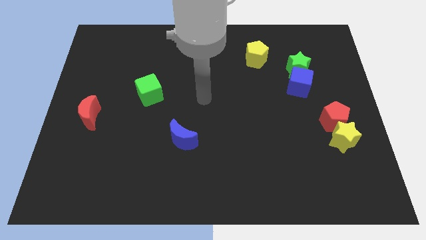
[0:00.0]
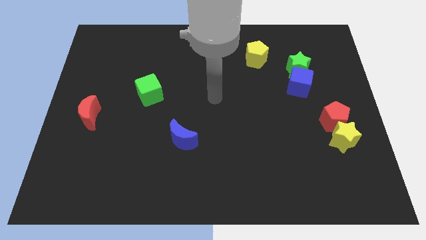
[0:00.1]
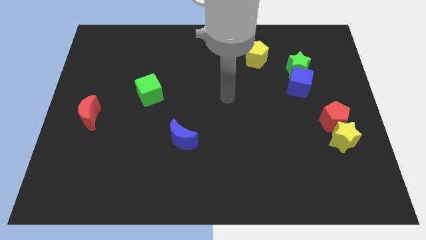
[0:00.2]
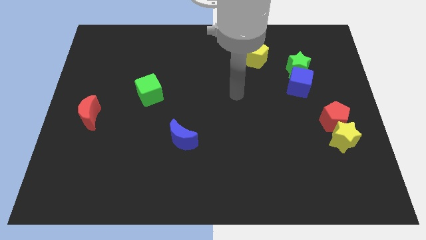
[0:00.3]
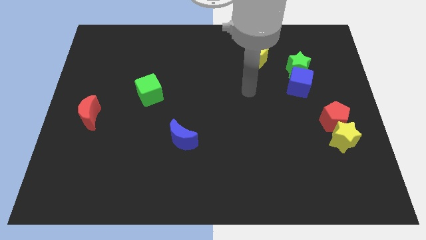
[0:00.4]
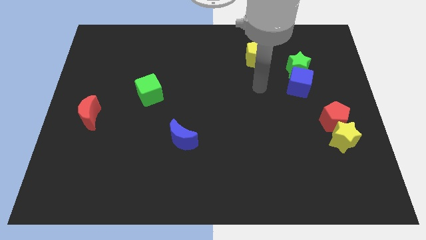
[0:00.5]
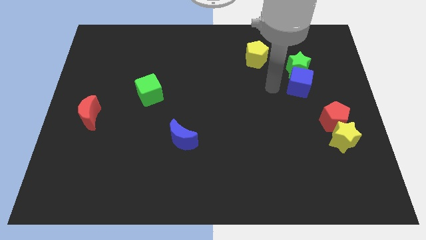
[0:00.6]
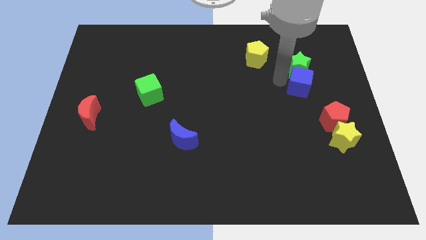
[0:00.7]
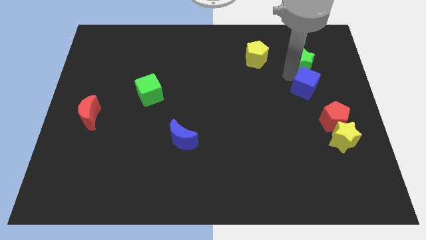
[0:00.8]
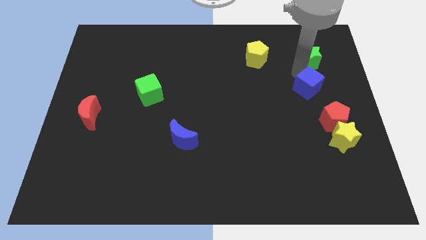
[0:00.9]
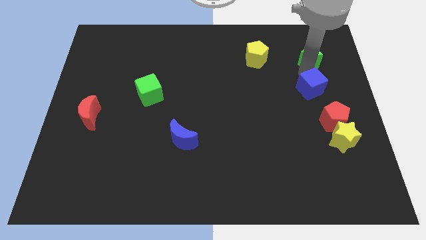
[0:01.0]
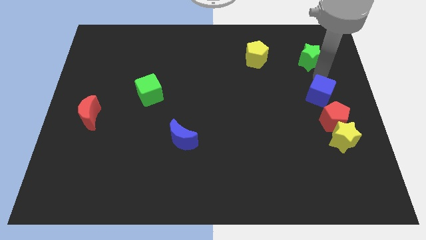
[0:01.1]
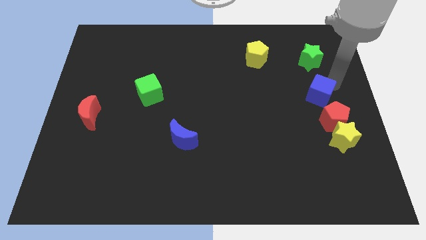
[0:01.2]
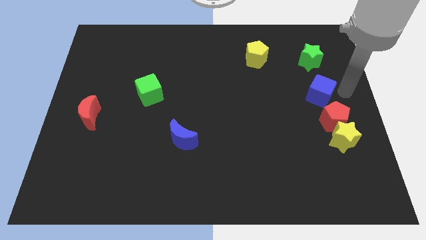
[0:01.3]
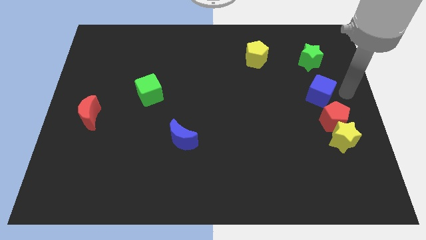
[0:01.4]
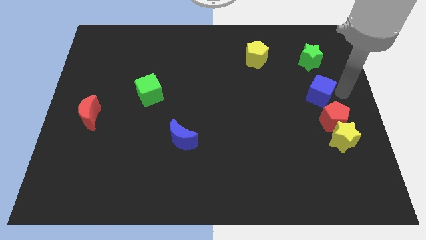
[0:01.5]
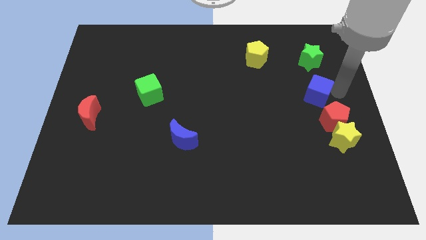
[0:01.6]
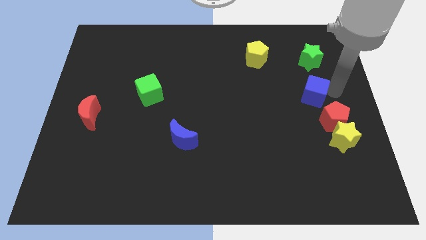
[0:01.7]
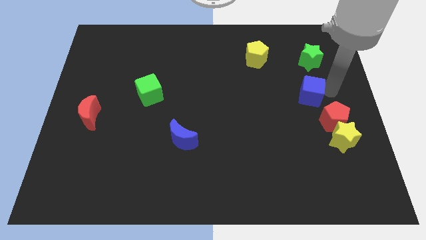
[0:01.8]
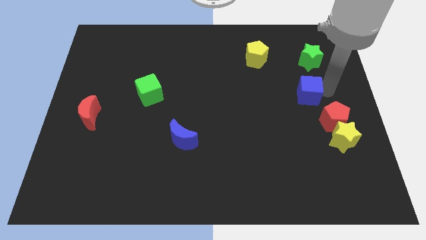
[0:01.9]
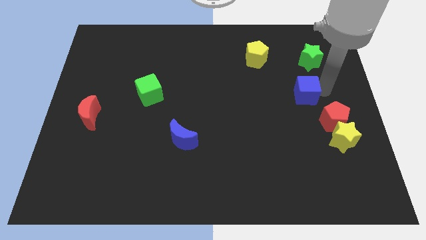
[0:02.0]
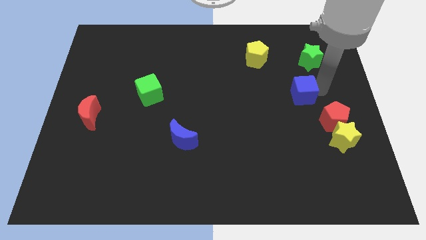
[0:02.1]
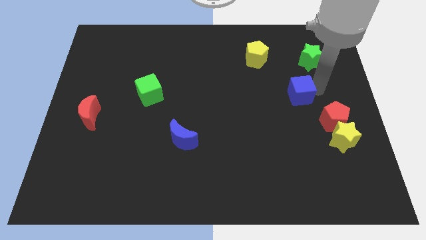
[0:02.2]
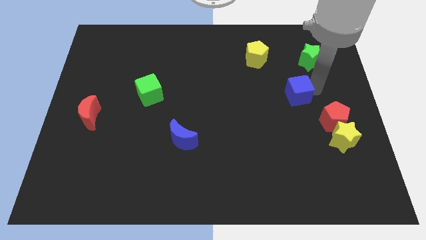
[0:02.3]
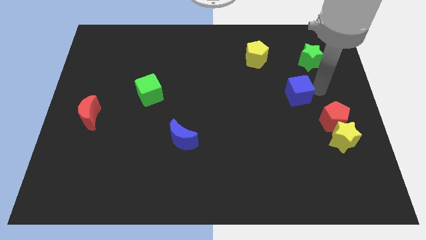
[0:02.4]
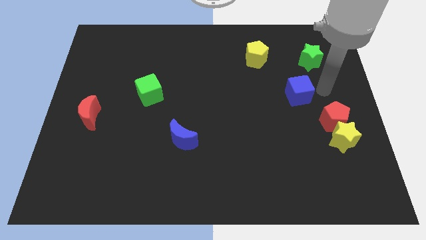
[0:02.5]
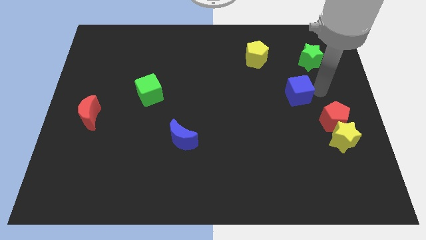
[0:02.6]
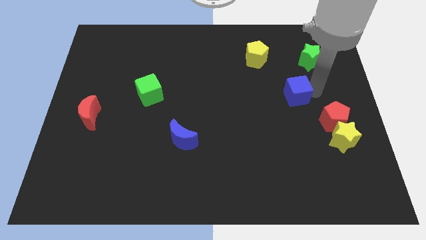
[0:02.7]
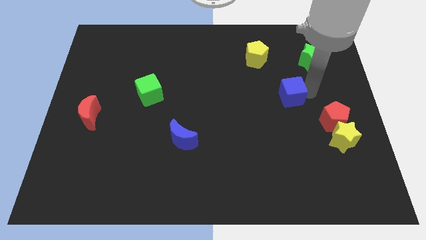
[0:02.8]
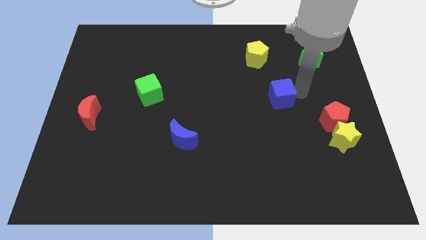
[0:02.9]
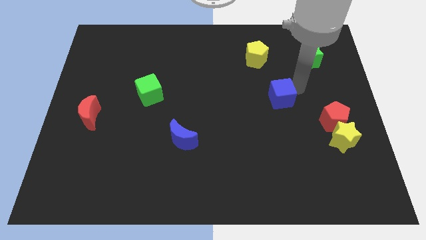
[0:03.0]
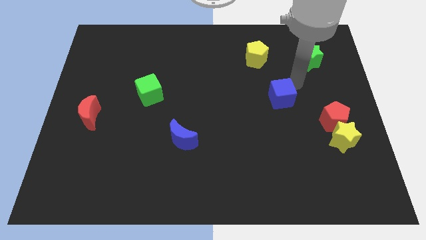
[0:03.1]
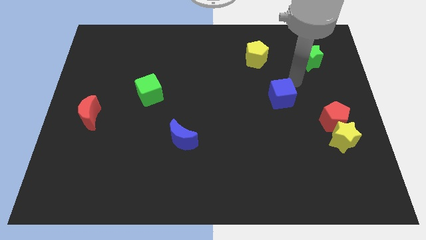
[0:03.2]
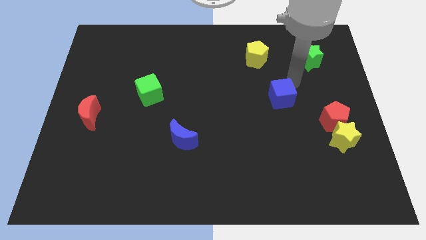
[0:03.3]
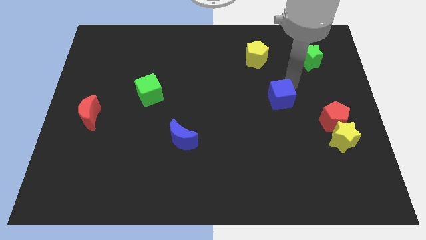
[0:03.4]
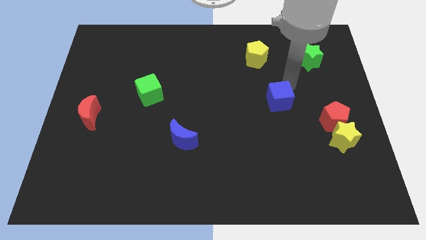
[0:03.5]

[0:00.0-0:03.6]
slightly slide the blue cube diagonally downwards and left

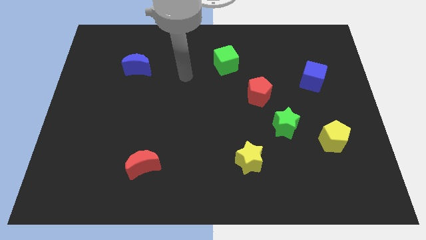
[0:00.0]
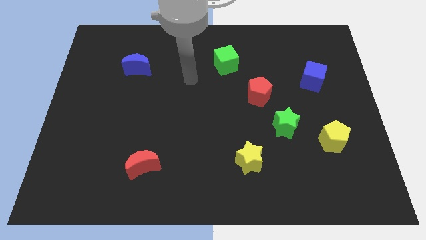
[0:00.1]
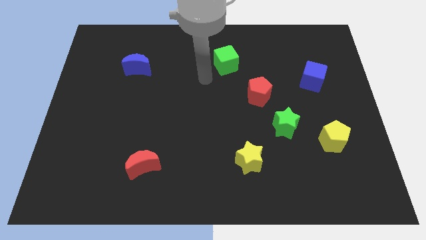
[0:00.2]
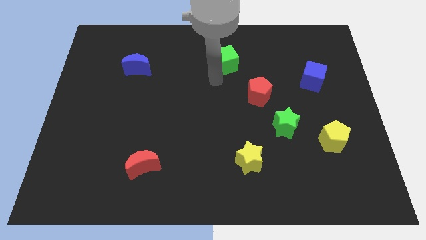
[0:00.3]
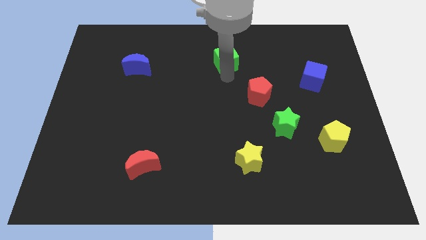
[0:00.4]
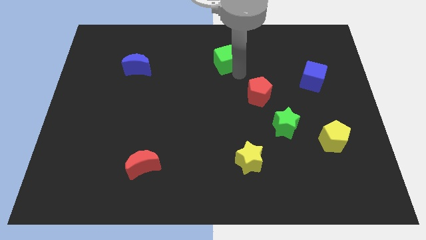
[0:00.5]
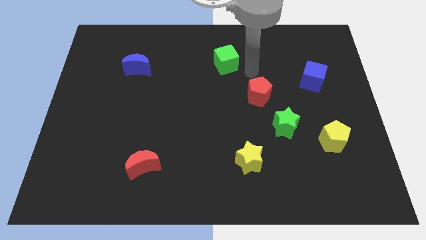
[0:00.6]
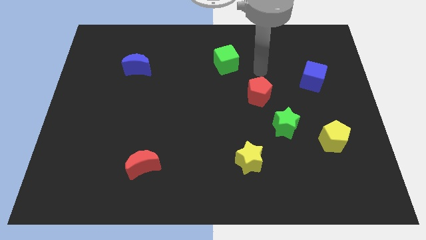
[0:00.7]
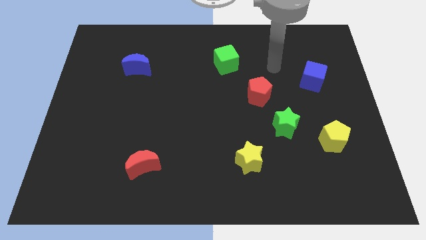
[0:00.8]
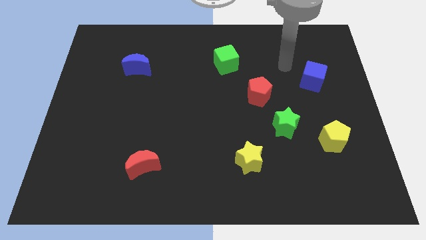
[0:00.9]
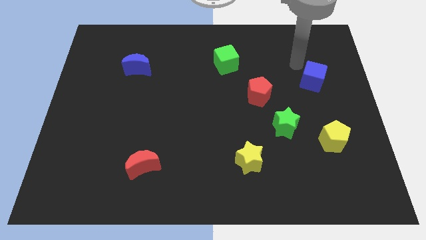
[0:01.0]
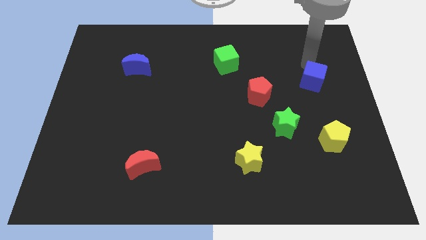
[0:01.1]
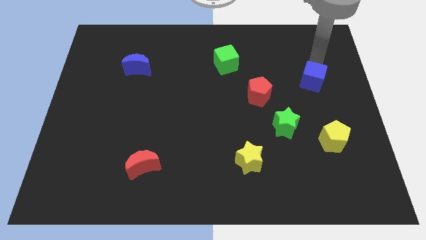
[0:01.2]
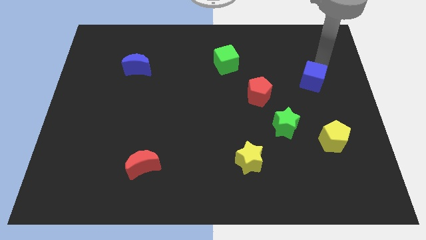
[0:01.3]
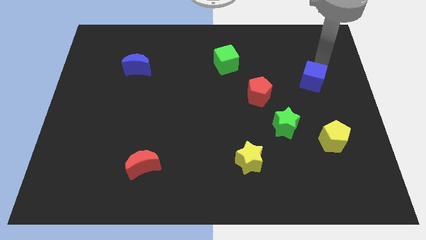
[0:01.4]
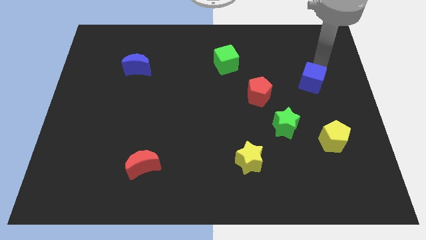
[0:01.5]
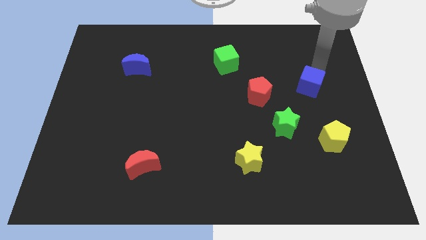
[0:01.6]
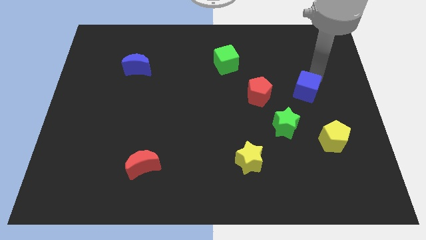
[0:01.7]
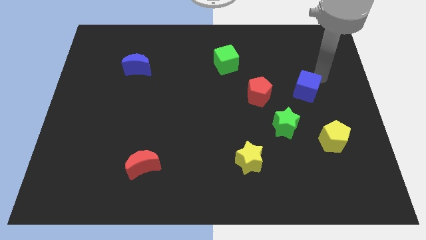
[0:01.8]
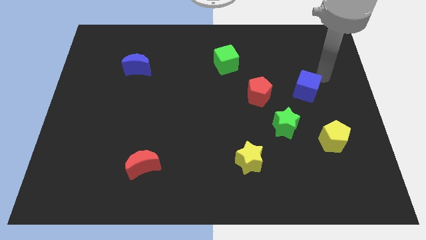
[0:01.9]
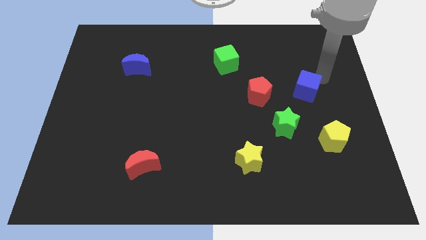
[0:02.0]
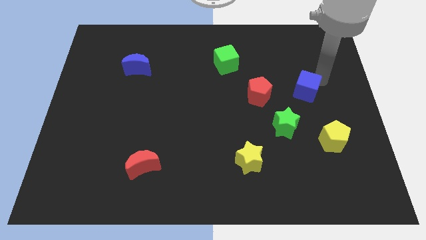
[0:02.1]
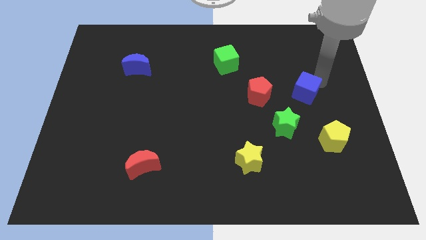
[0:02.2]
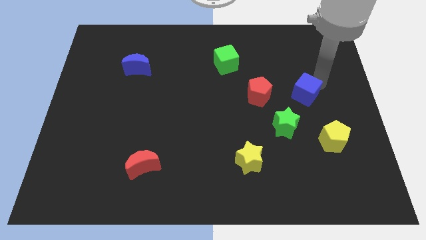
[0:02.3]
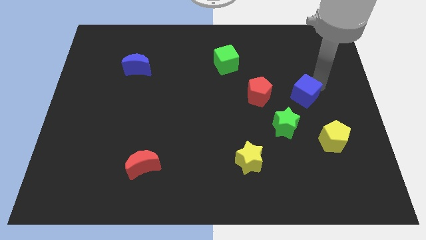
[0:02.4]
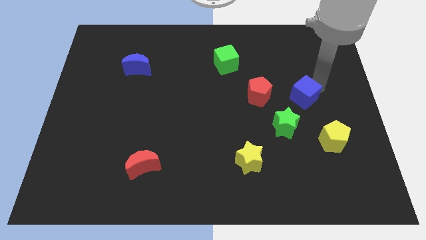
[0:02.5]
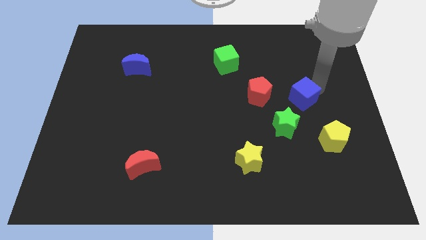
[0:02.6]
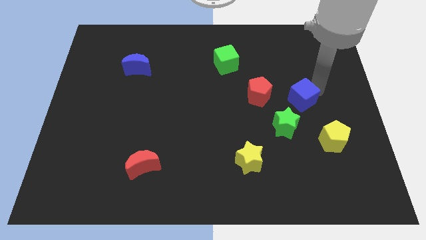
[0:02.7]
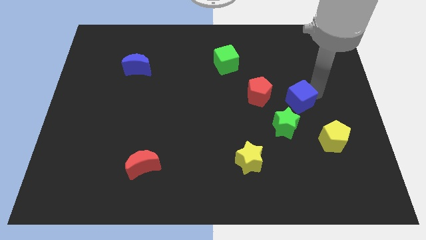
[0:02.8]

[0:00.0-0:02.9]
move the blue cube a little down and to the left

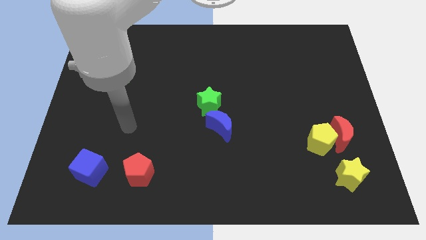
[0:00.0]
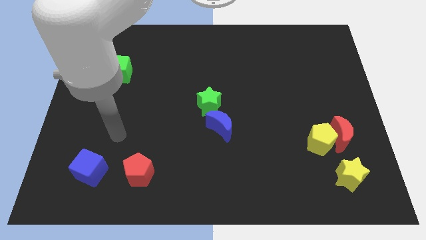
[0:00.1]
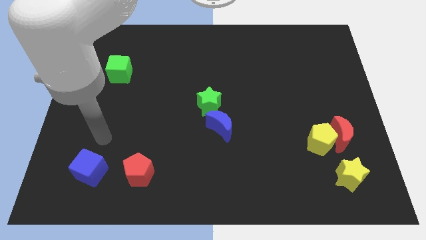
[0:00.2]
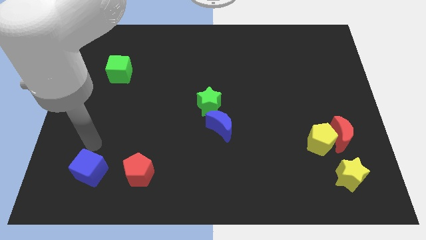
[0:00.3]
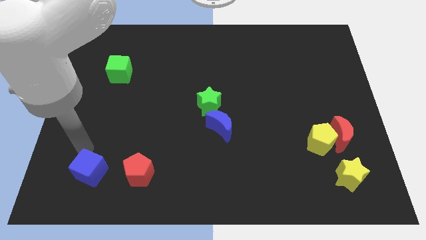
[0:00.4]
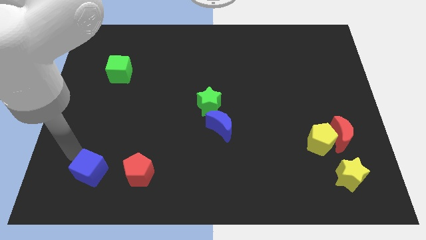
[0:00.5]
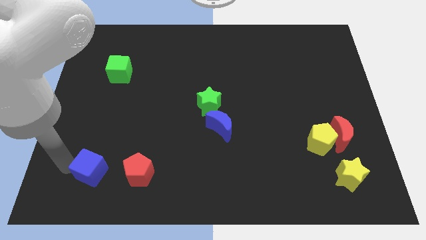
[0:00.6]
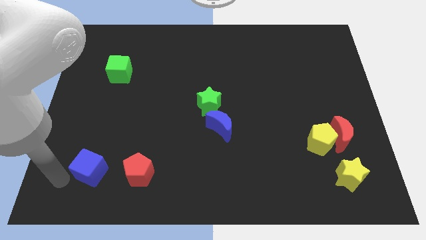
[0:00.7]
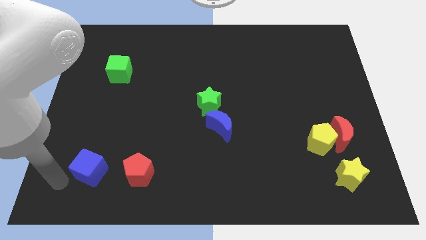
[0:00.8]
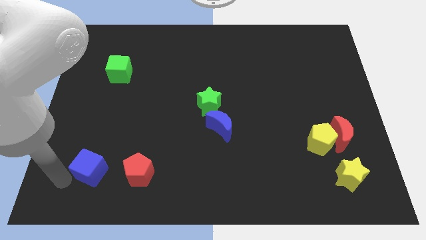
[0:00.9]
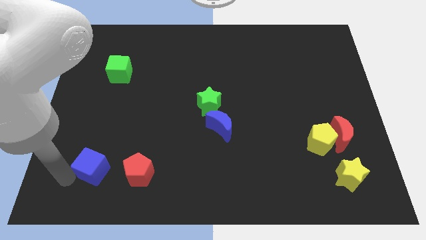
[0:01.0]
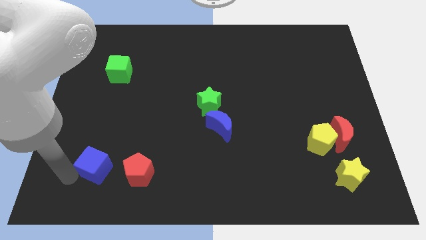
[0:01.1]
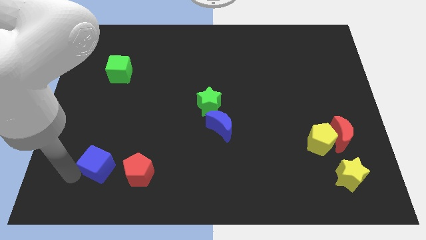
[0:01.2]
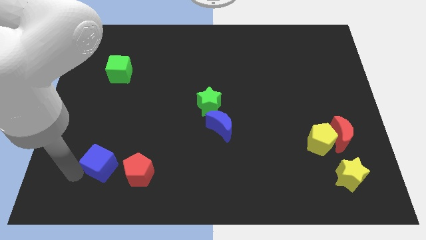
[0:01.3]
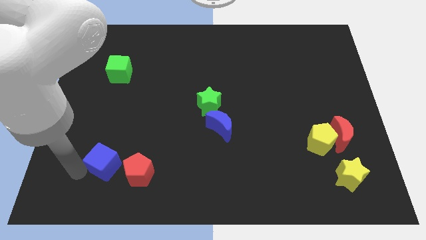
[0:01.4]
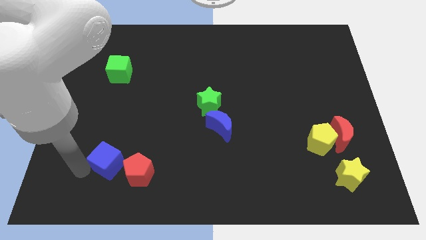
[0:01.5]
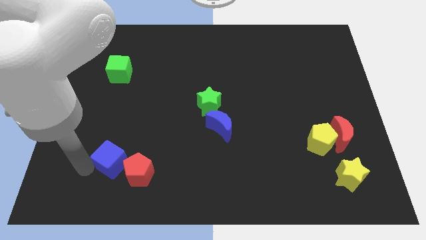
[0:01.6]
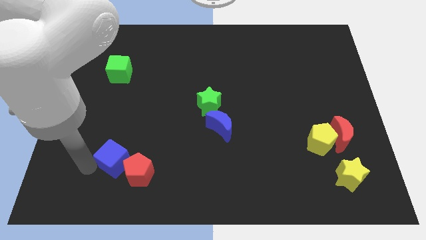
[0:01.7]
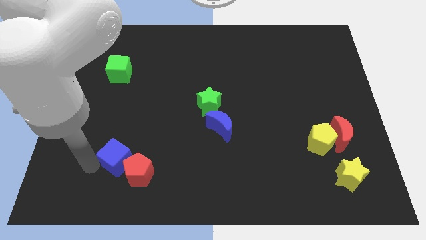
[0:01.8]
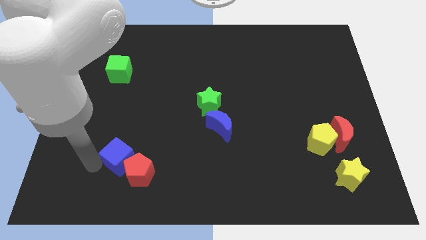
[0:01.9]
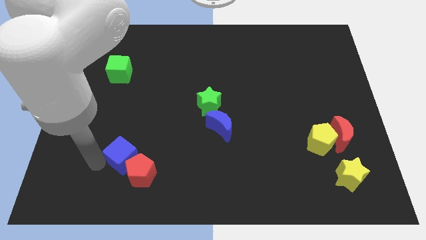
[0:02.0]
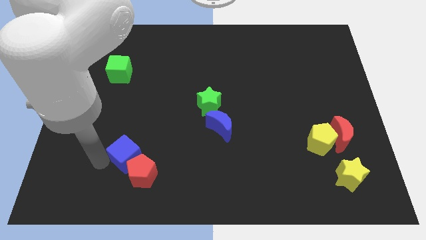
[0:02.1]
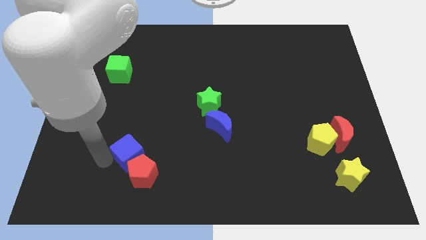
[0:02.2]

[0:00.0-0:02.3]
slightly move the blue cube to the right
